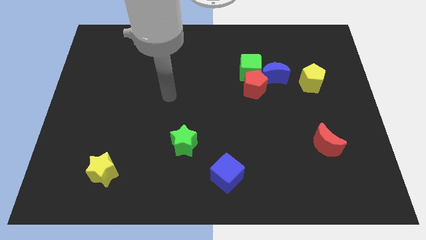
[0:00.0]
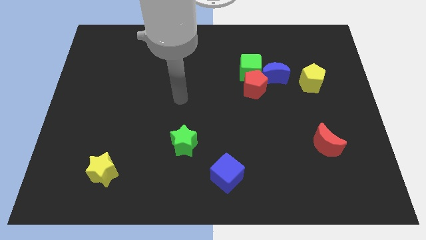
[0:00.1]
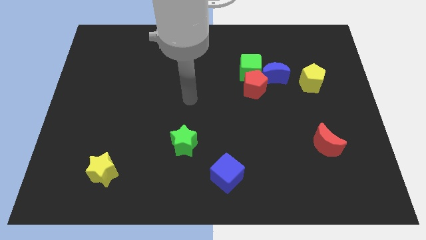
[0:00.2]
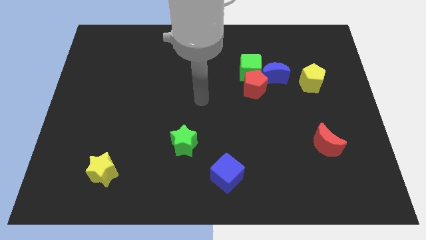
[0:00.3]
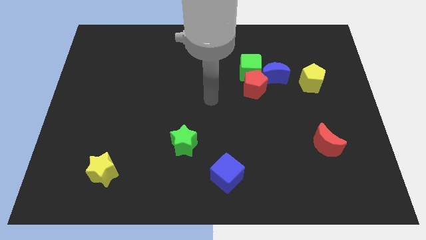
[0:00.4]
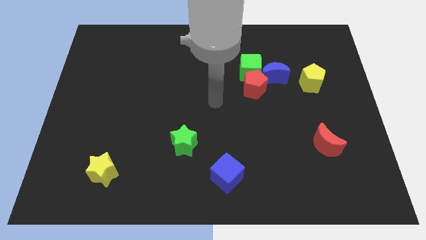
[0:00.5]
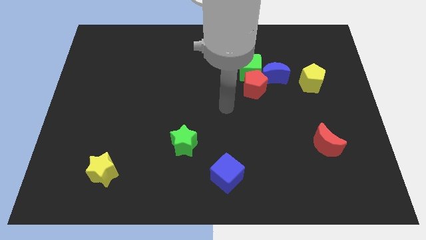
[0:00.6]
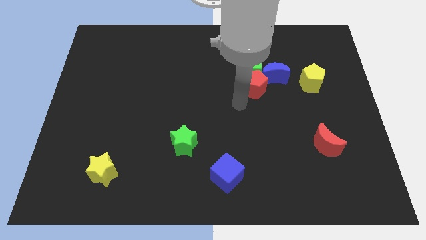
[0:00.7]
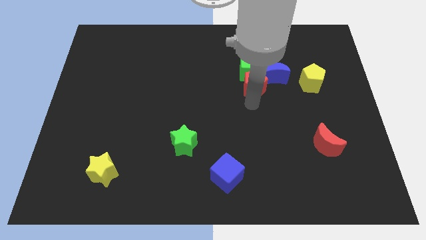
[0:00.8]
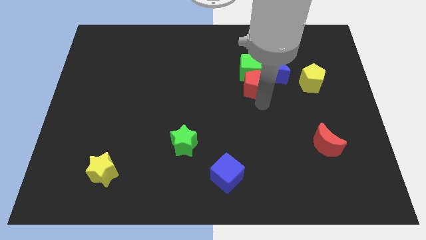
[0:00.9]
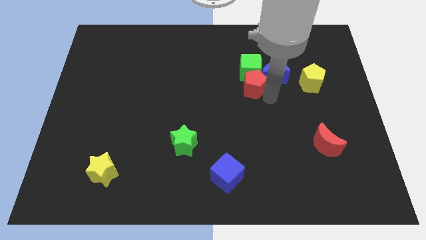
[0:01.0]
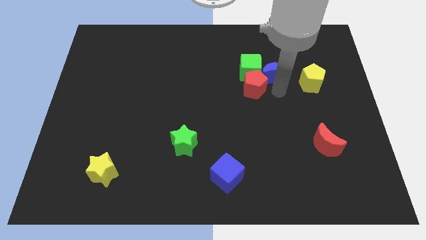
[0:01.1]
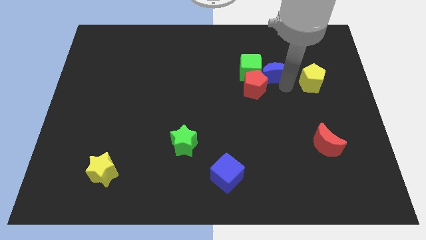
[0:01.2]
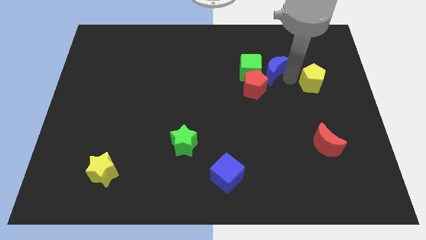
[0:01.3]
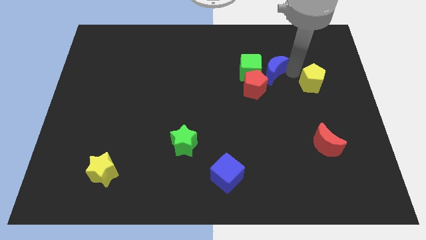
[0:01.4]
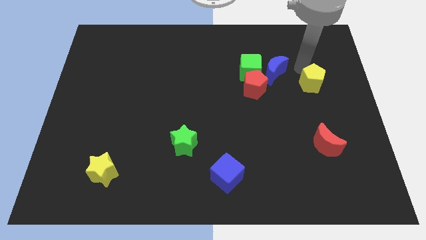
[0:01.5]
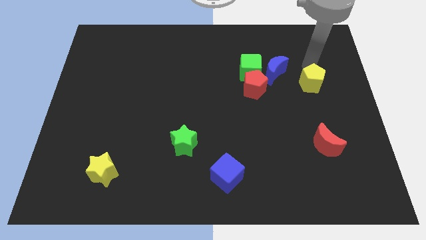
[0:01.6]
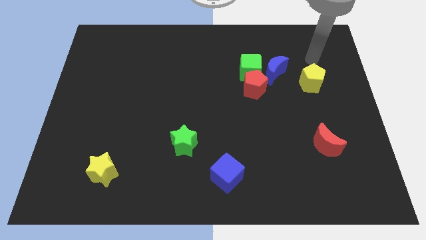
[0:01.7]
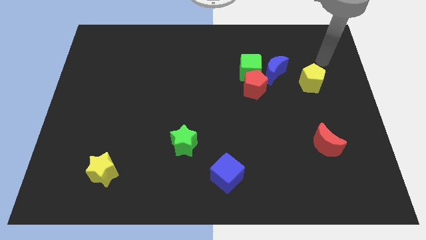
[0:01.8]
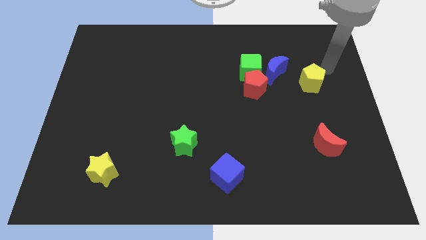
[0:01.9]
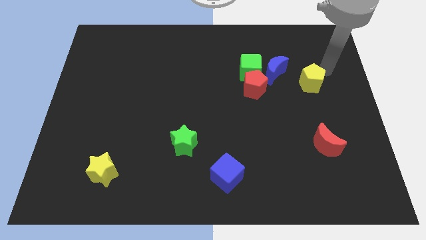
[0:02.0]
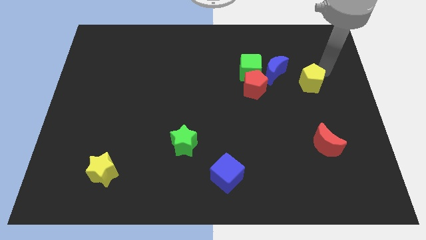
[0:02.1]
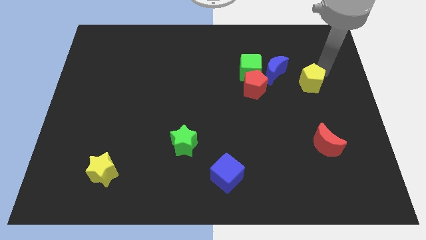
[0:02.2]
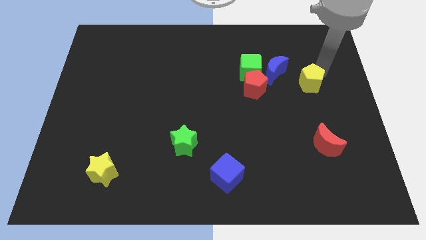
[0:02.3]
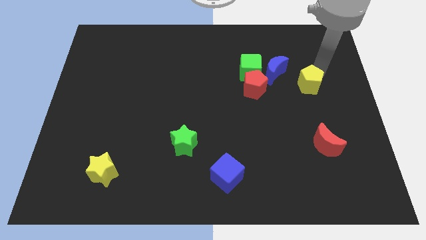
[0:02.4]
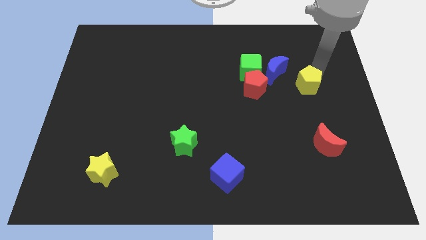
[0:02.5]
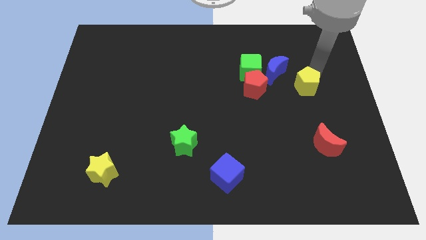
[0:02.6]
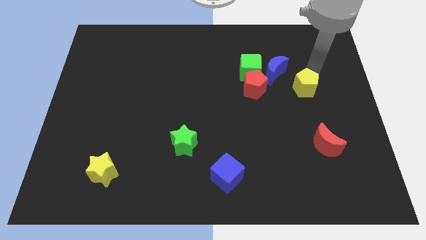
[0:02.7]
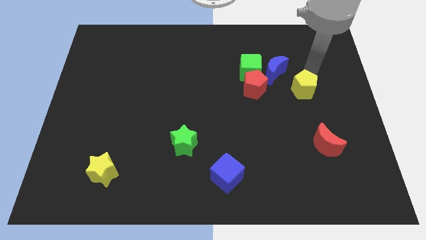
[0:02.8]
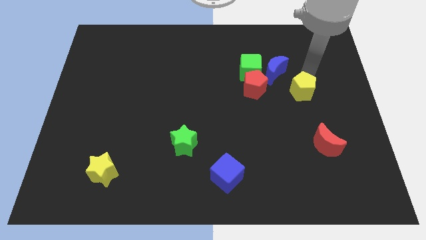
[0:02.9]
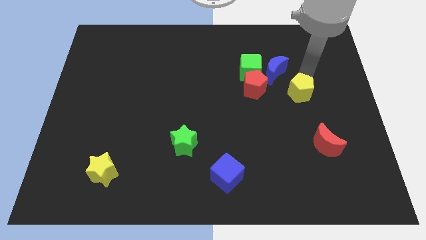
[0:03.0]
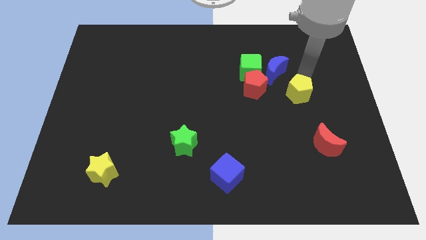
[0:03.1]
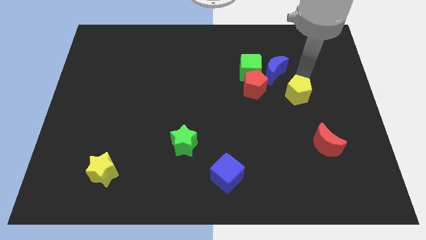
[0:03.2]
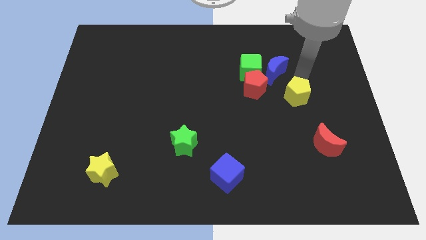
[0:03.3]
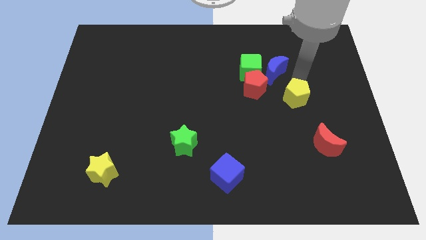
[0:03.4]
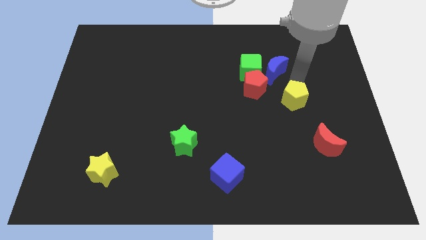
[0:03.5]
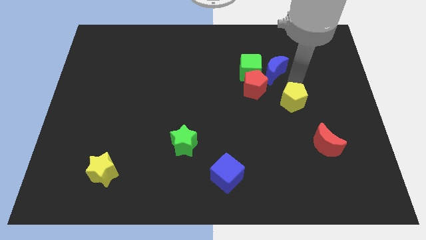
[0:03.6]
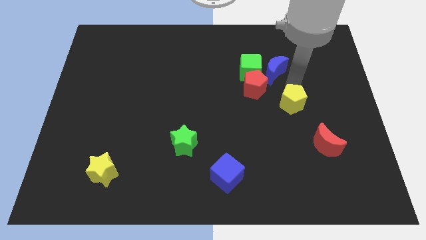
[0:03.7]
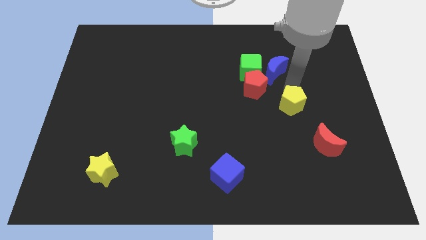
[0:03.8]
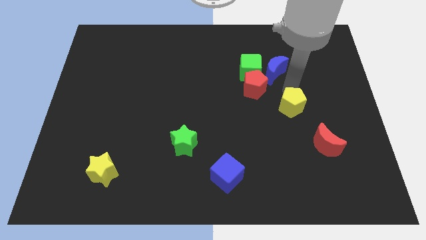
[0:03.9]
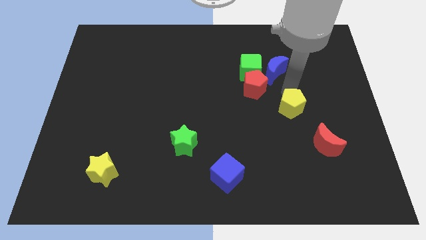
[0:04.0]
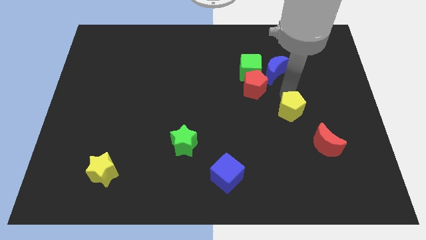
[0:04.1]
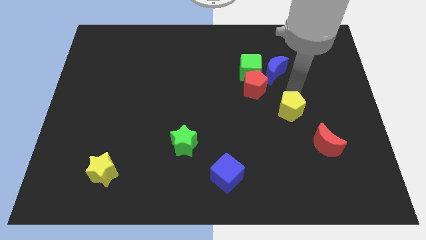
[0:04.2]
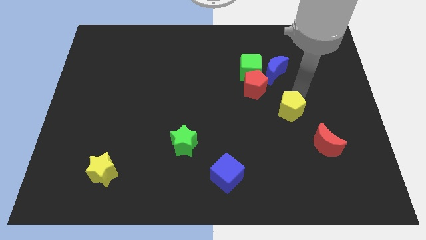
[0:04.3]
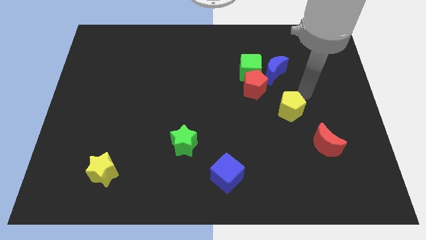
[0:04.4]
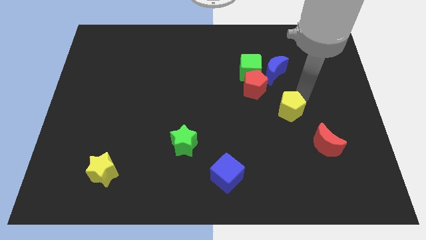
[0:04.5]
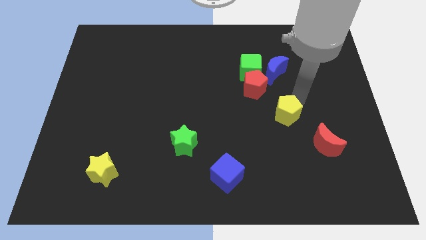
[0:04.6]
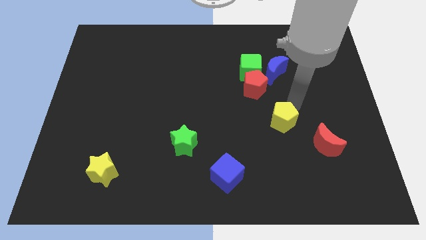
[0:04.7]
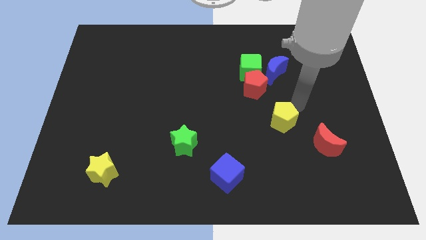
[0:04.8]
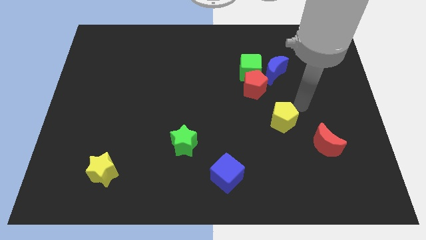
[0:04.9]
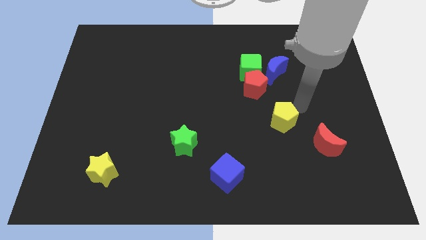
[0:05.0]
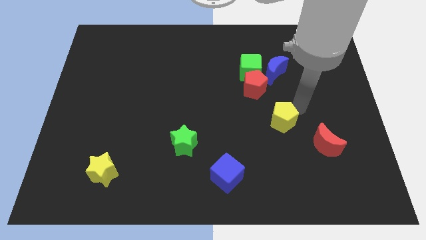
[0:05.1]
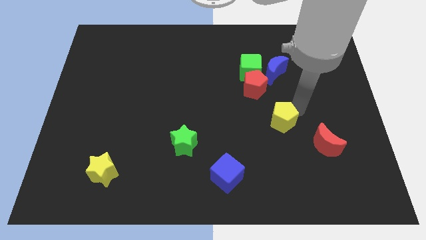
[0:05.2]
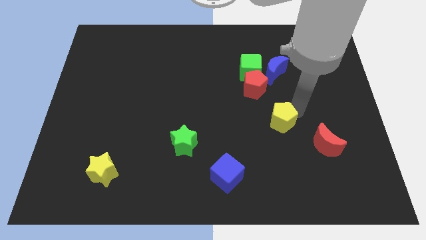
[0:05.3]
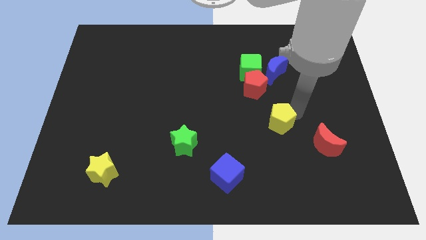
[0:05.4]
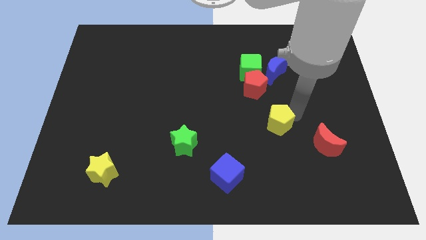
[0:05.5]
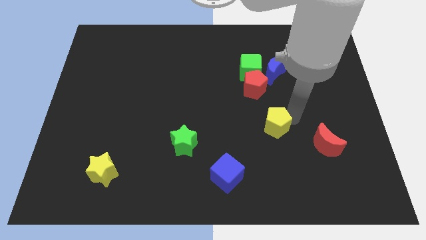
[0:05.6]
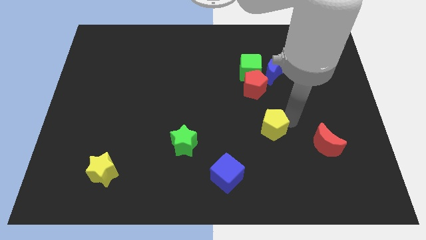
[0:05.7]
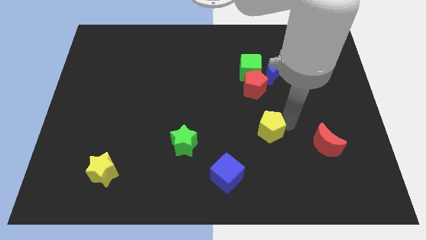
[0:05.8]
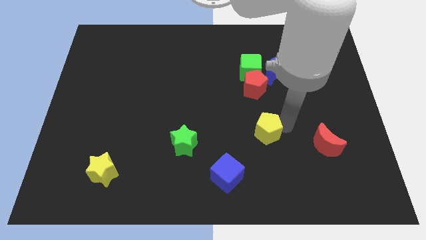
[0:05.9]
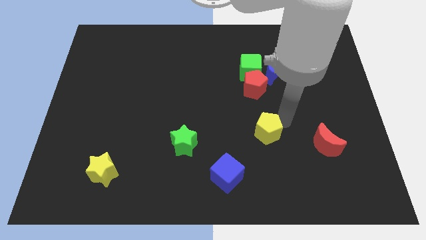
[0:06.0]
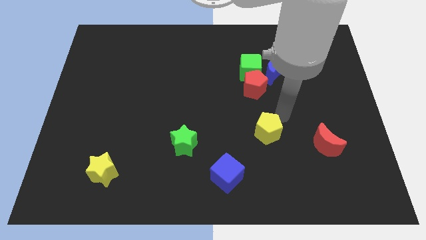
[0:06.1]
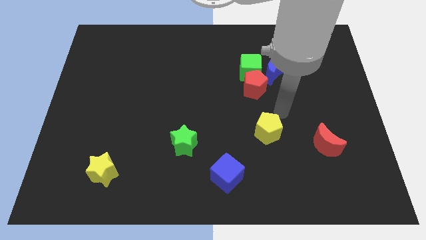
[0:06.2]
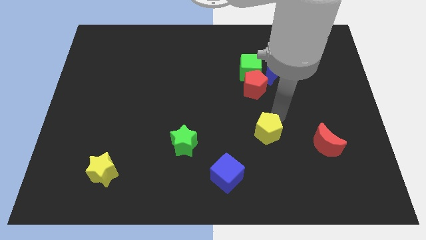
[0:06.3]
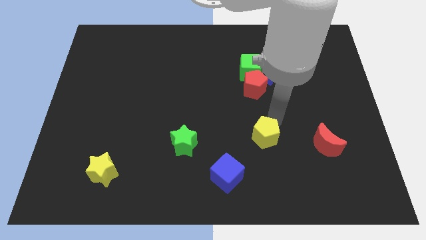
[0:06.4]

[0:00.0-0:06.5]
push the yellow pentagon diagonally up and to the right of the blue cube
